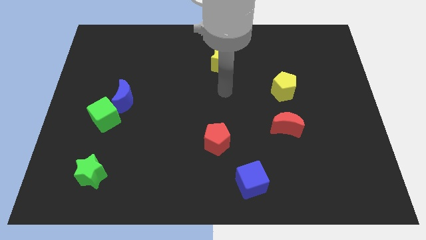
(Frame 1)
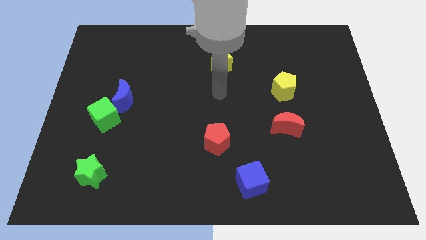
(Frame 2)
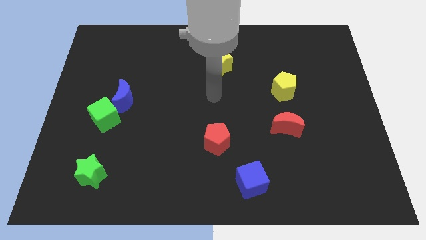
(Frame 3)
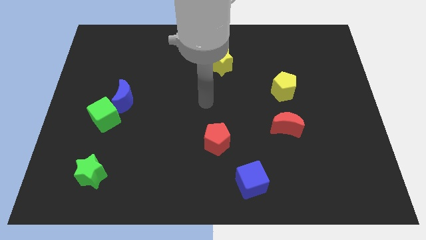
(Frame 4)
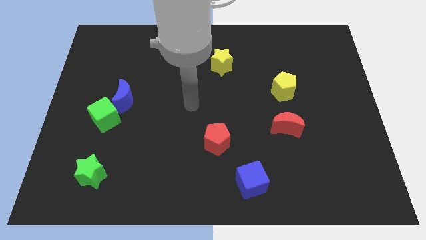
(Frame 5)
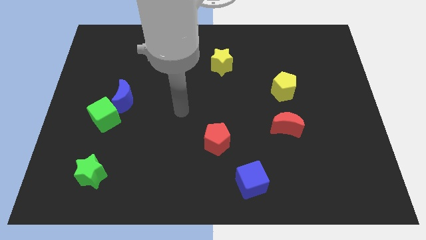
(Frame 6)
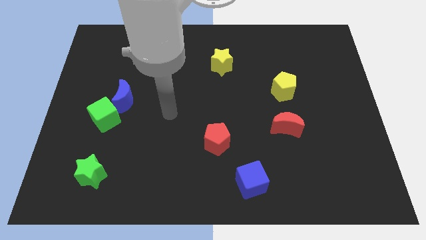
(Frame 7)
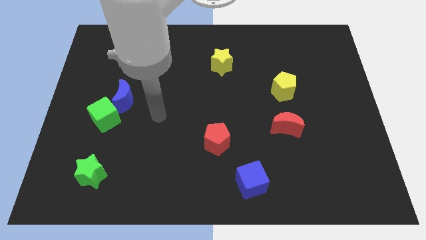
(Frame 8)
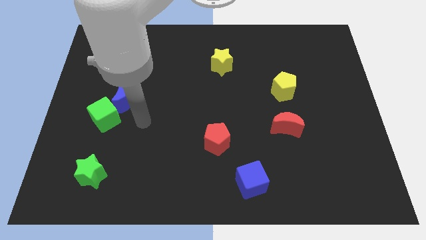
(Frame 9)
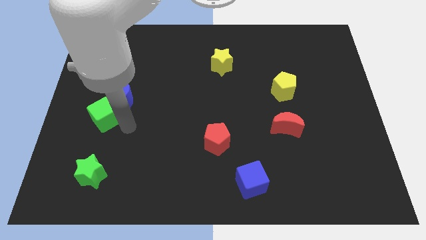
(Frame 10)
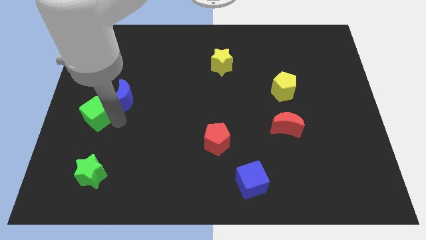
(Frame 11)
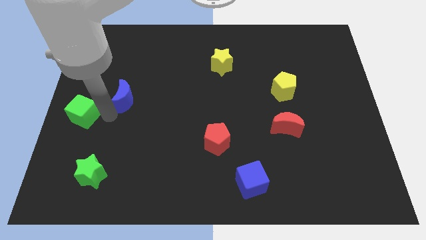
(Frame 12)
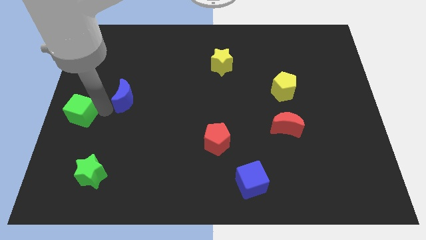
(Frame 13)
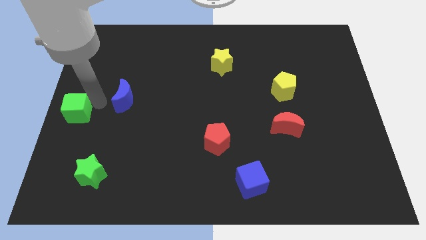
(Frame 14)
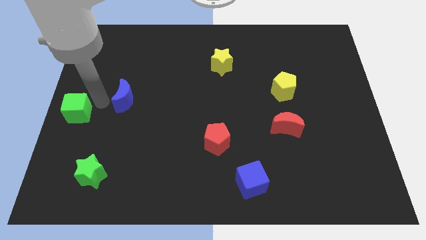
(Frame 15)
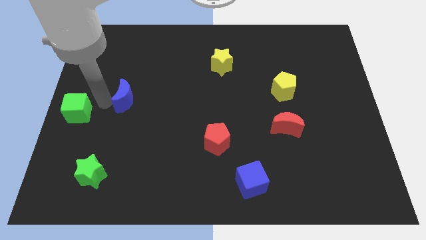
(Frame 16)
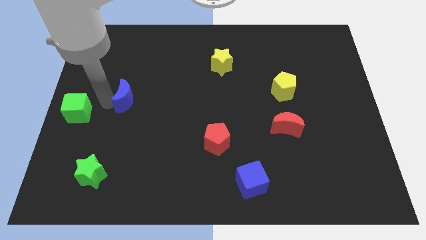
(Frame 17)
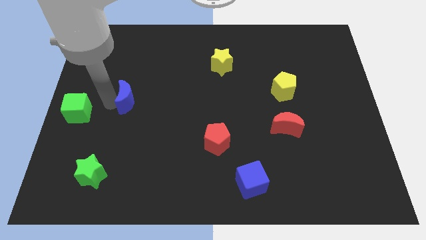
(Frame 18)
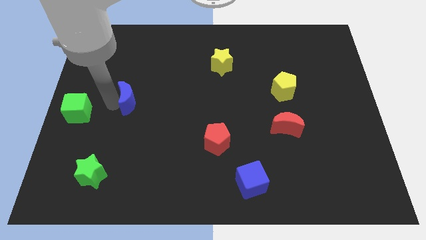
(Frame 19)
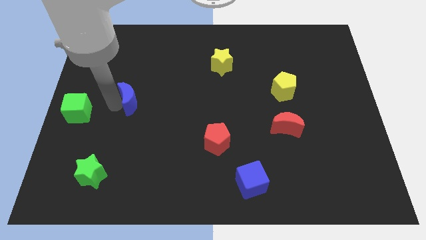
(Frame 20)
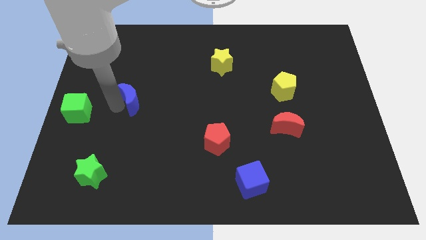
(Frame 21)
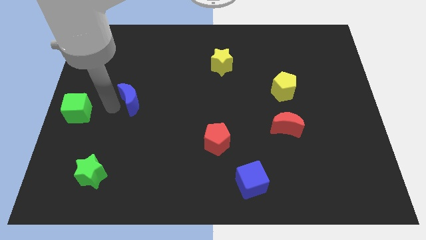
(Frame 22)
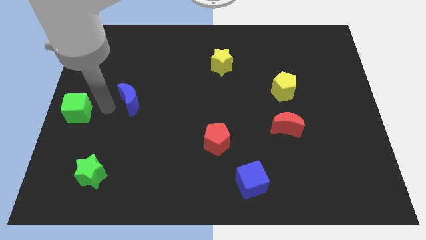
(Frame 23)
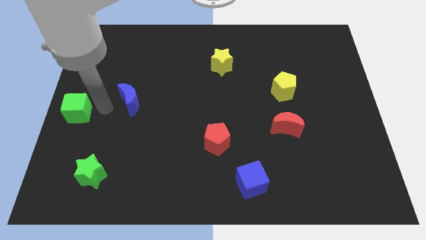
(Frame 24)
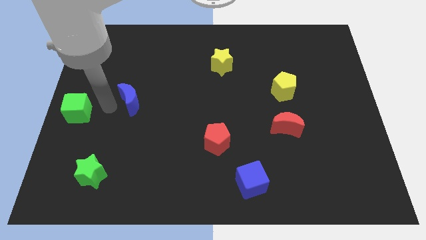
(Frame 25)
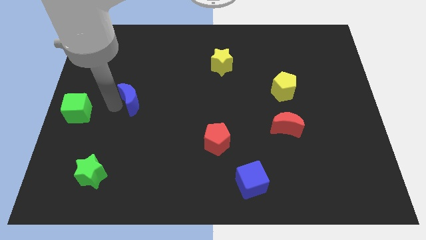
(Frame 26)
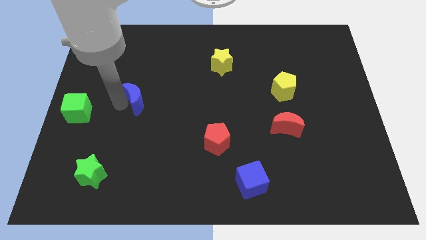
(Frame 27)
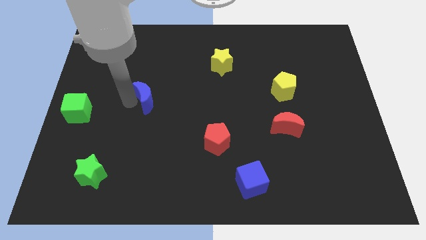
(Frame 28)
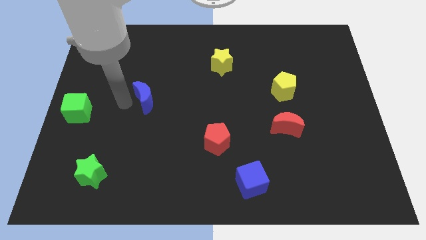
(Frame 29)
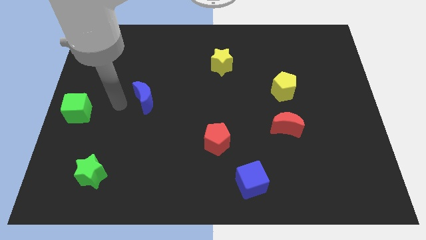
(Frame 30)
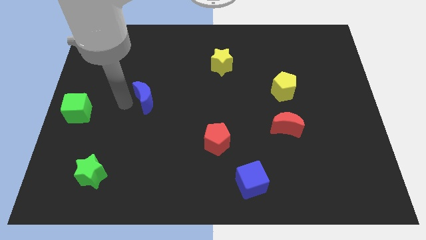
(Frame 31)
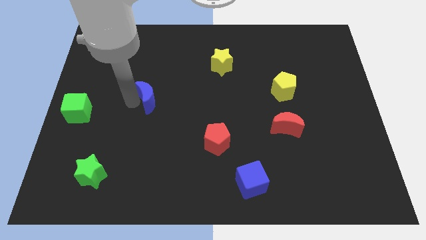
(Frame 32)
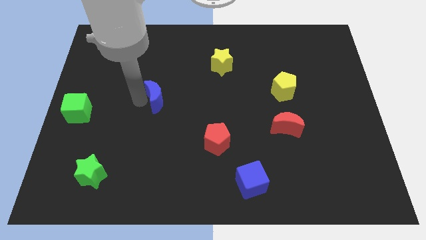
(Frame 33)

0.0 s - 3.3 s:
push the blue moon to the right somewhat

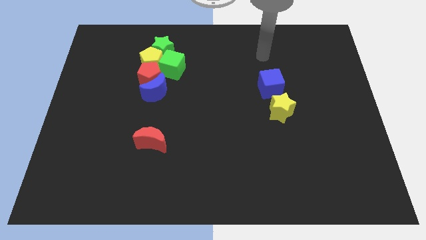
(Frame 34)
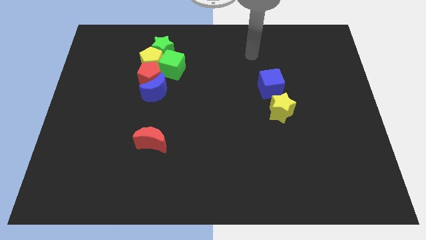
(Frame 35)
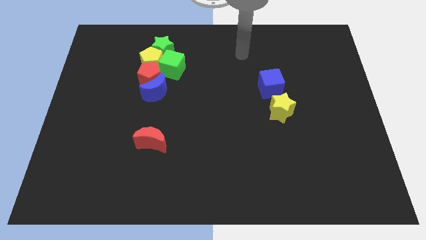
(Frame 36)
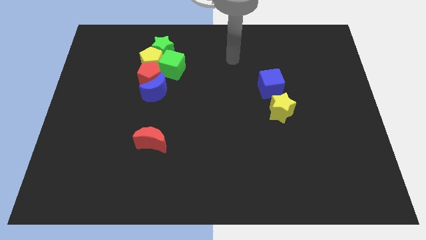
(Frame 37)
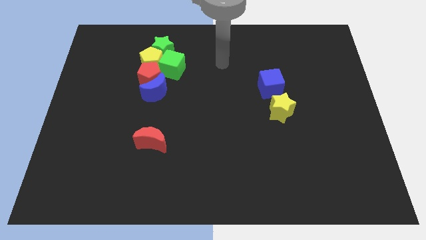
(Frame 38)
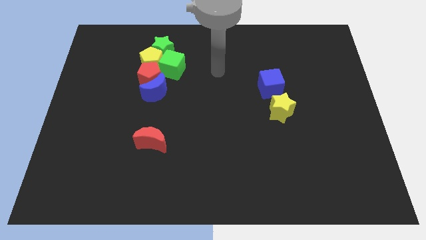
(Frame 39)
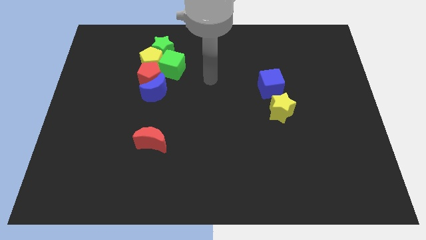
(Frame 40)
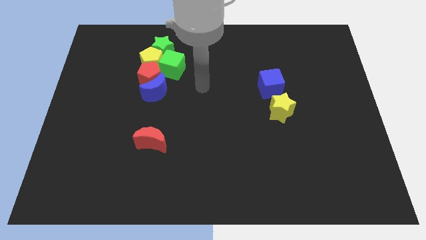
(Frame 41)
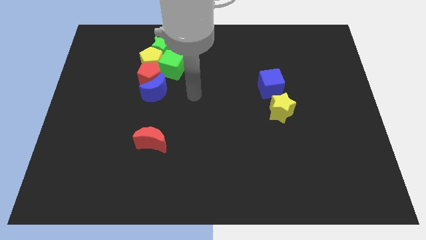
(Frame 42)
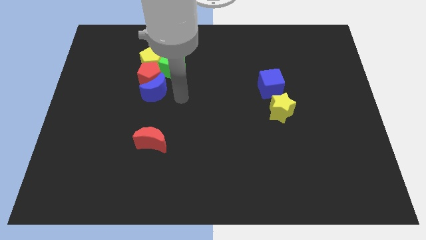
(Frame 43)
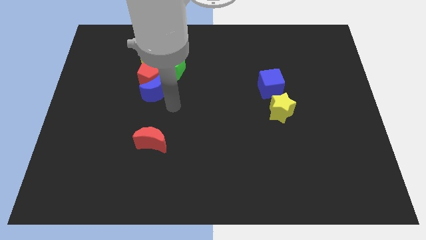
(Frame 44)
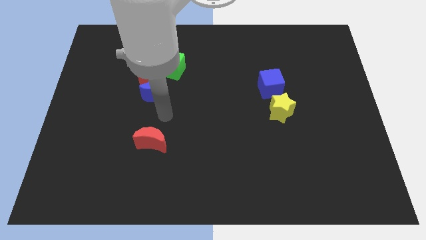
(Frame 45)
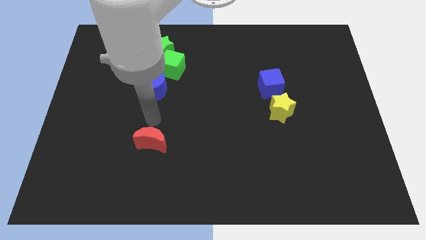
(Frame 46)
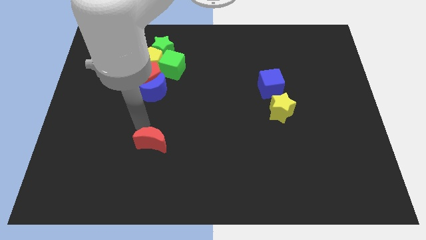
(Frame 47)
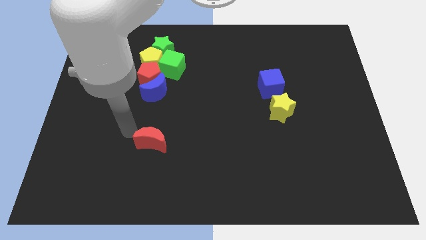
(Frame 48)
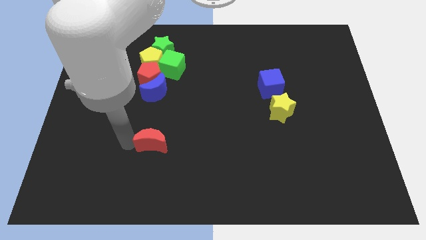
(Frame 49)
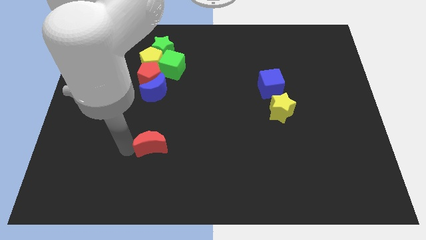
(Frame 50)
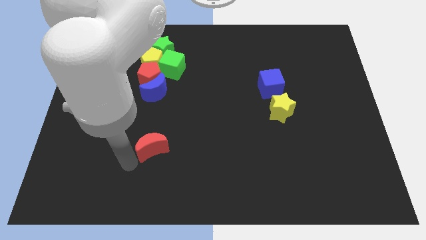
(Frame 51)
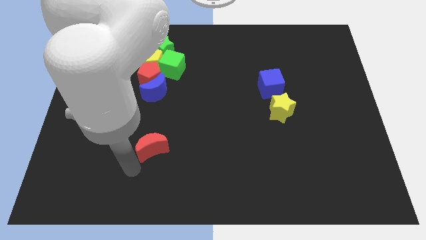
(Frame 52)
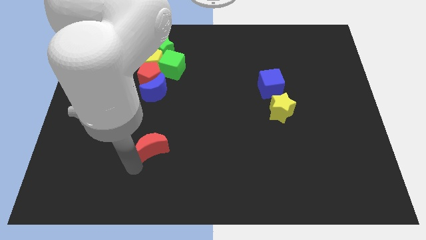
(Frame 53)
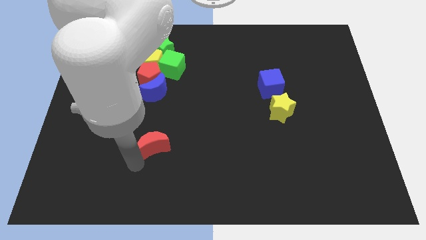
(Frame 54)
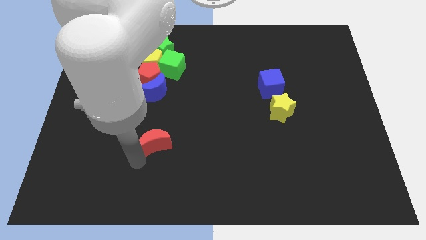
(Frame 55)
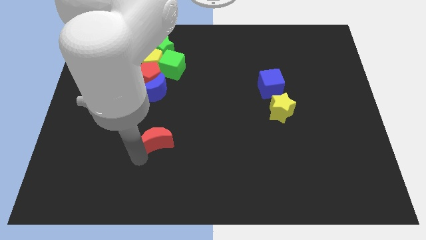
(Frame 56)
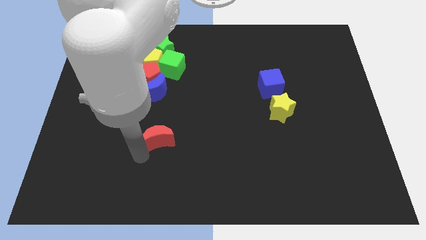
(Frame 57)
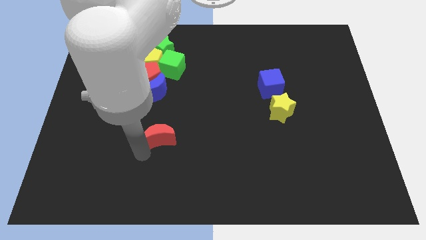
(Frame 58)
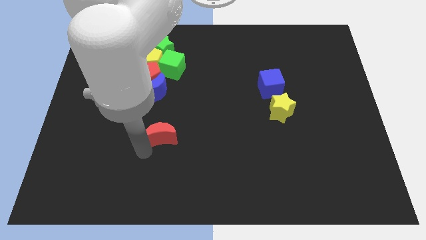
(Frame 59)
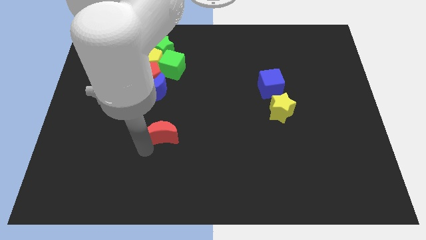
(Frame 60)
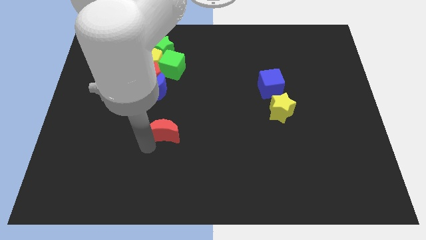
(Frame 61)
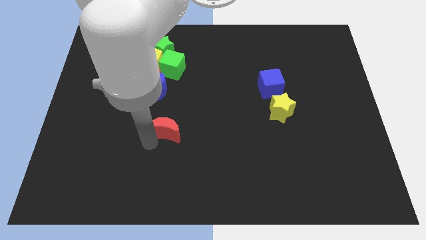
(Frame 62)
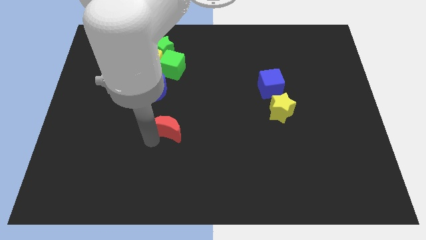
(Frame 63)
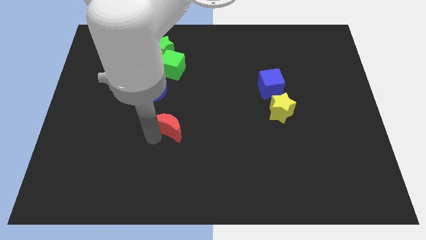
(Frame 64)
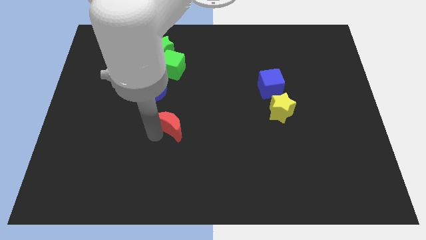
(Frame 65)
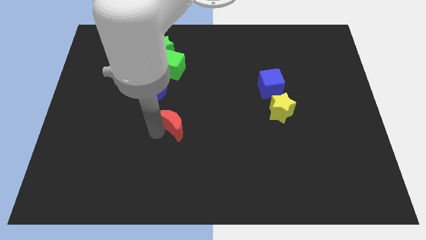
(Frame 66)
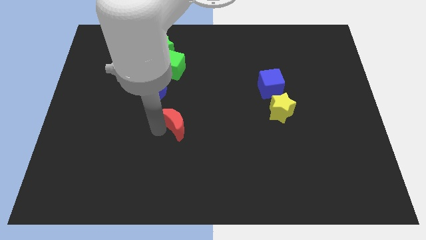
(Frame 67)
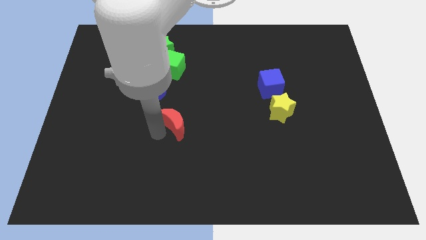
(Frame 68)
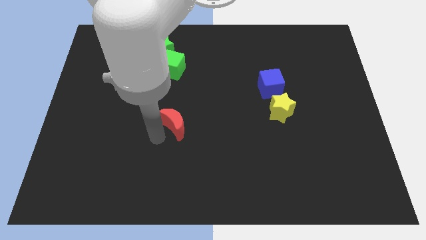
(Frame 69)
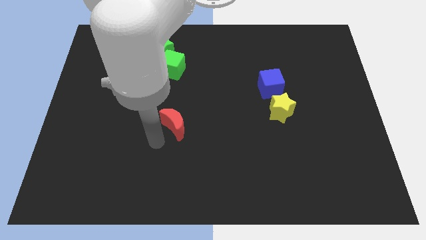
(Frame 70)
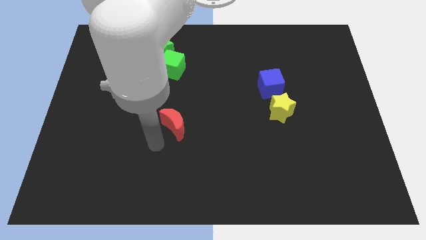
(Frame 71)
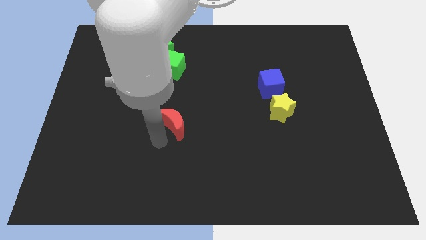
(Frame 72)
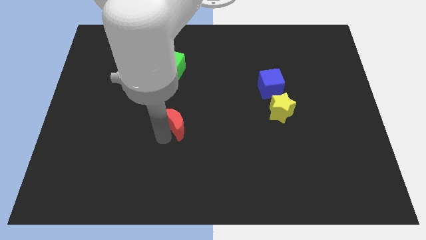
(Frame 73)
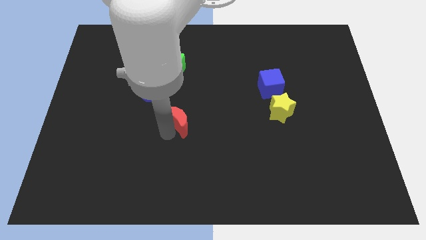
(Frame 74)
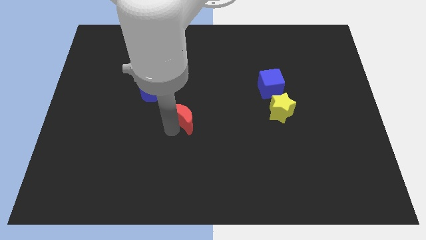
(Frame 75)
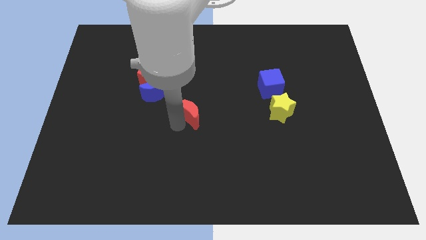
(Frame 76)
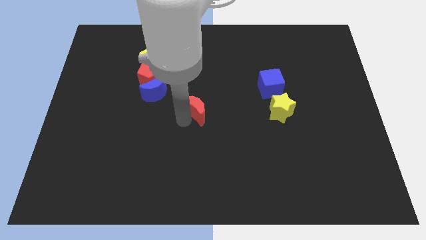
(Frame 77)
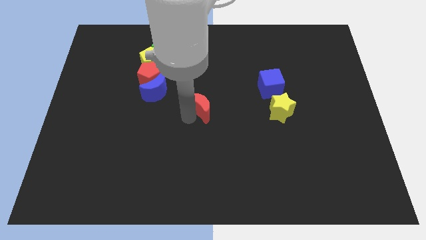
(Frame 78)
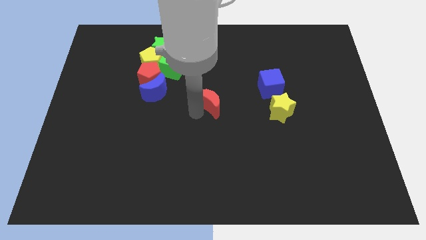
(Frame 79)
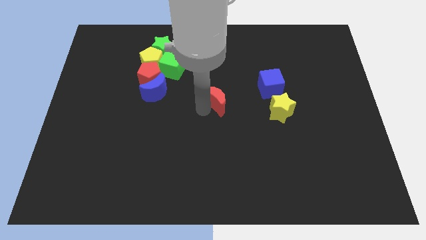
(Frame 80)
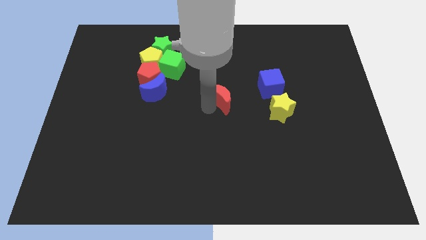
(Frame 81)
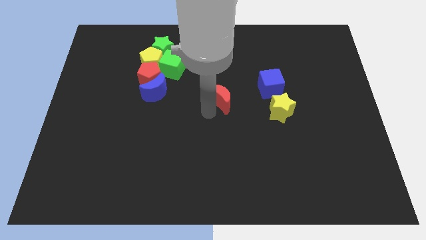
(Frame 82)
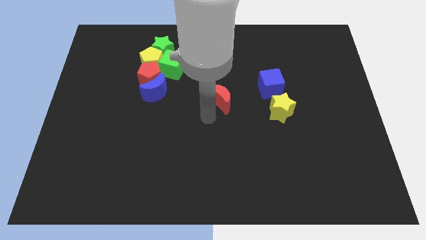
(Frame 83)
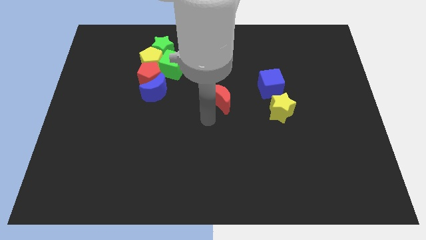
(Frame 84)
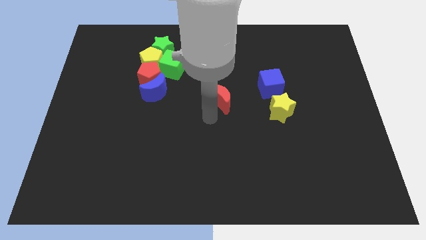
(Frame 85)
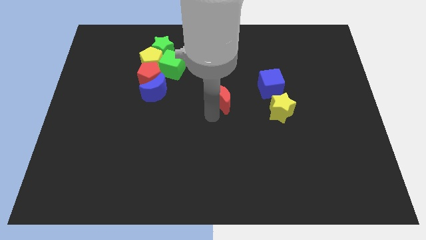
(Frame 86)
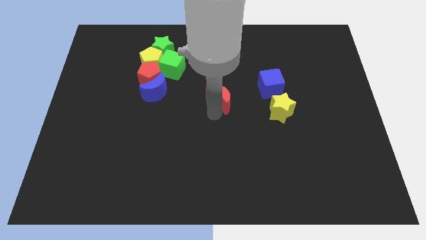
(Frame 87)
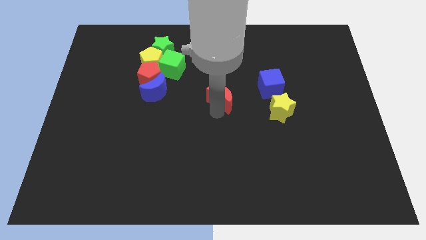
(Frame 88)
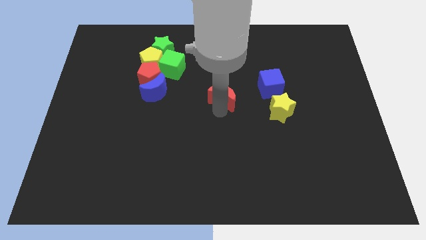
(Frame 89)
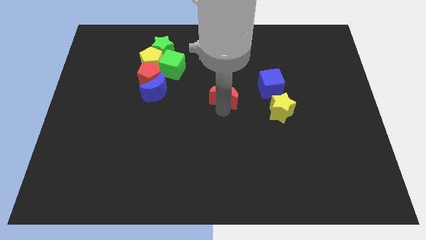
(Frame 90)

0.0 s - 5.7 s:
slide the red moon up and right
